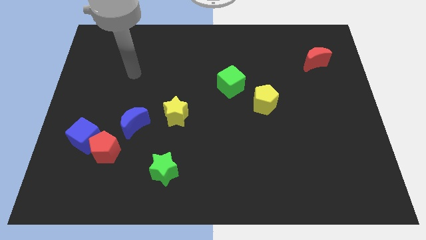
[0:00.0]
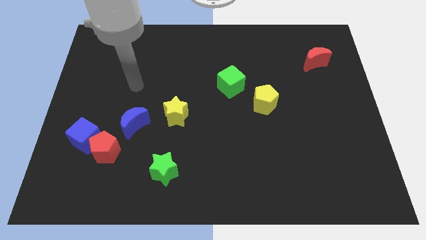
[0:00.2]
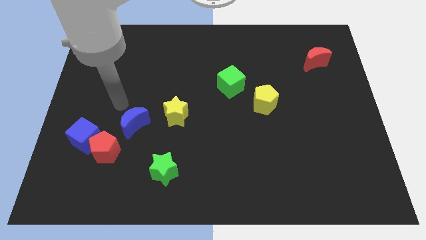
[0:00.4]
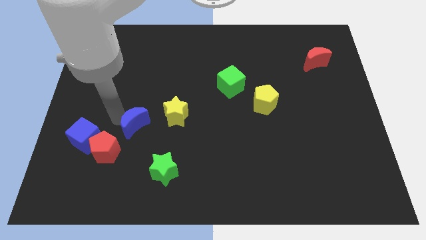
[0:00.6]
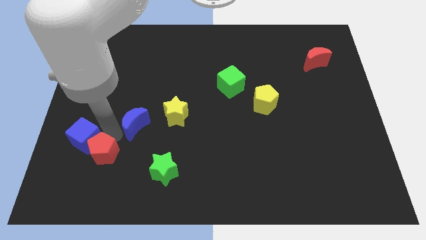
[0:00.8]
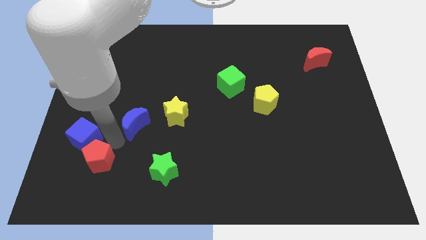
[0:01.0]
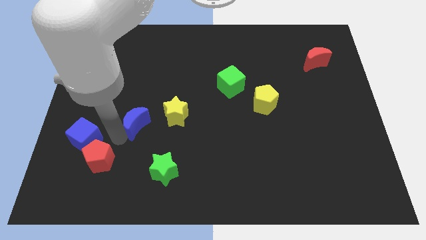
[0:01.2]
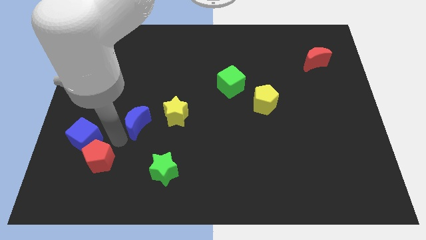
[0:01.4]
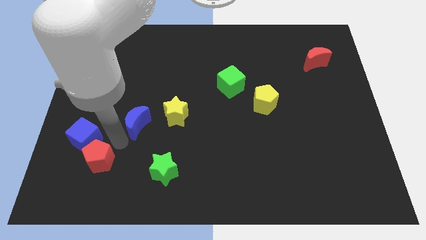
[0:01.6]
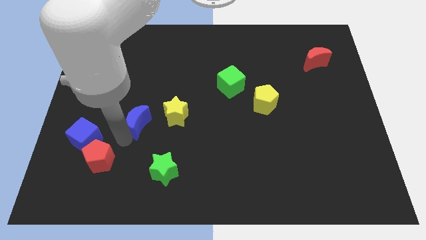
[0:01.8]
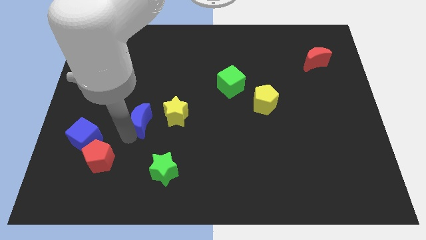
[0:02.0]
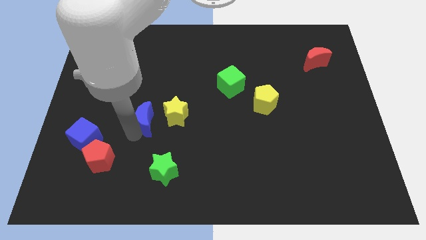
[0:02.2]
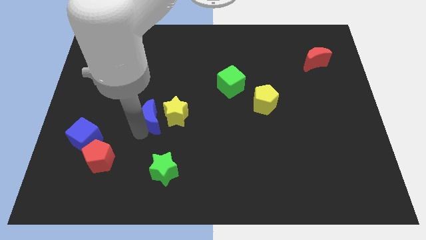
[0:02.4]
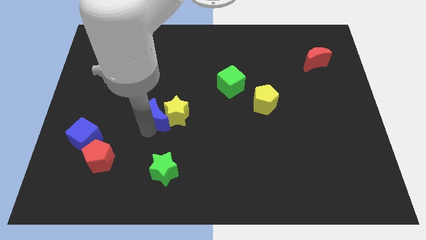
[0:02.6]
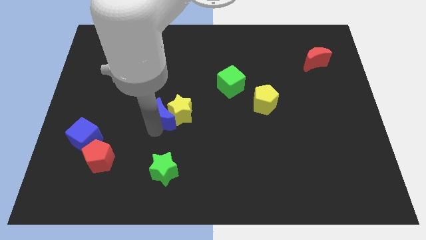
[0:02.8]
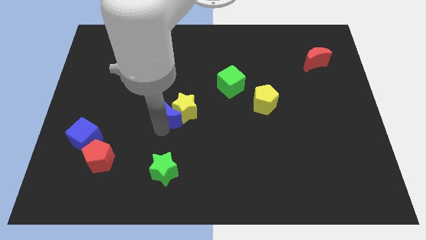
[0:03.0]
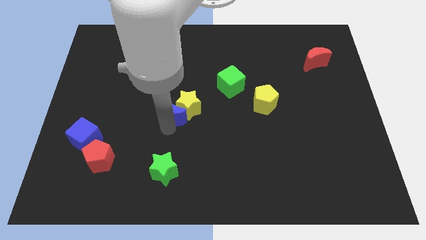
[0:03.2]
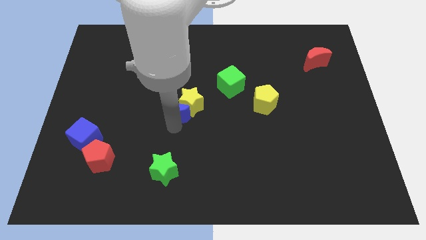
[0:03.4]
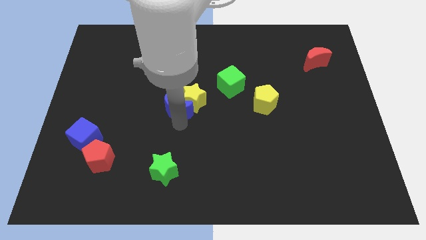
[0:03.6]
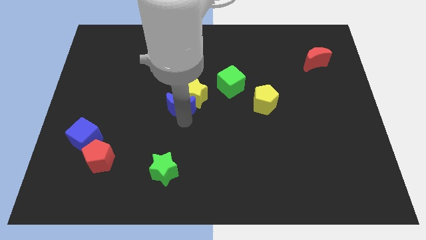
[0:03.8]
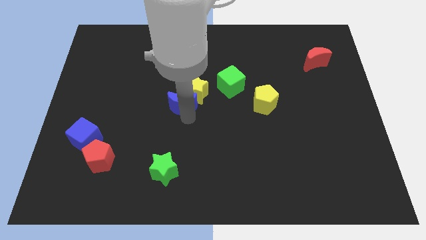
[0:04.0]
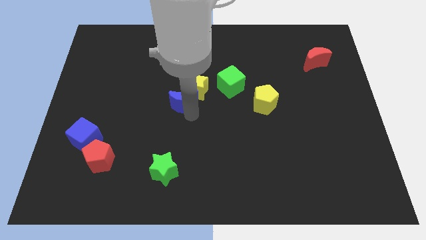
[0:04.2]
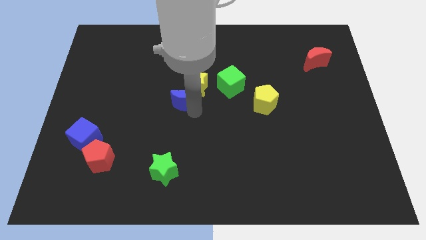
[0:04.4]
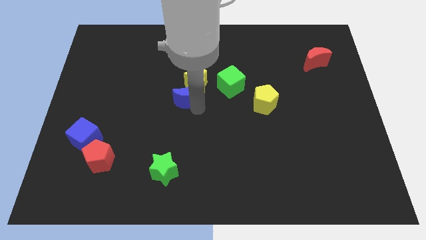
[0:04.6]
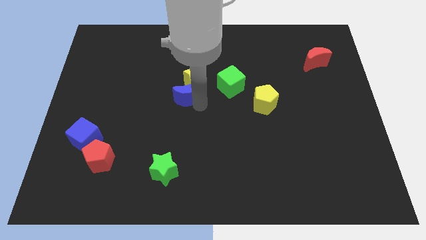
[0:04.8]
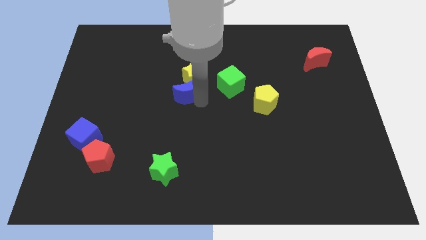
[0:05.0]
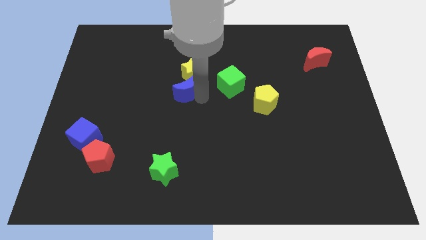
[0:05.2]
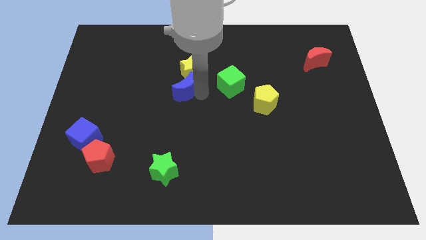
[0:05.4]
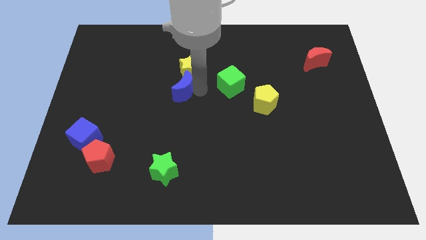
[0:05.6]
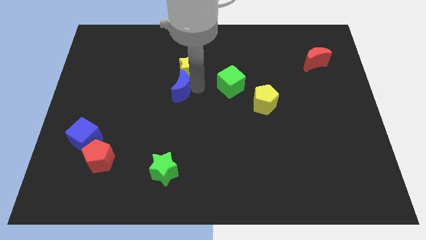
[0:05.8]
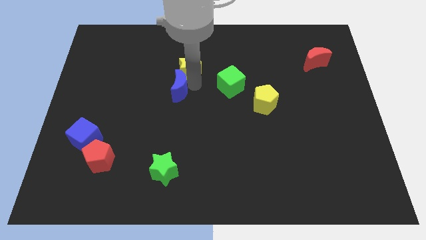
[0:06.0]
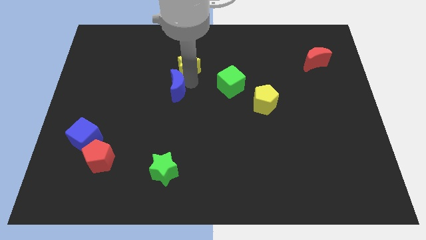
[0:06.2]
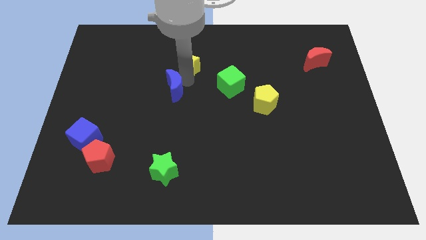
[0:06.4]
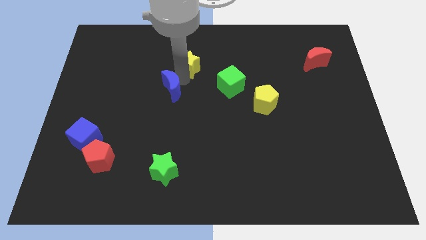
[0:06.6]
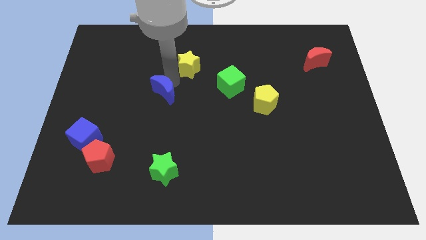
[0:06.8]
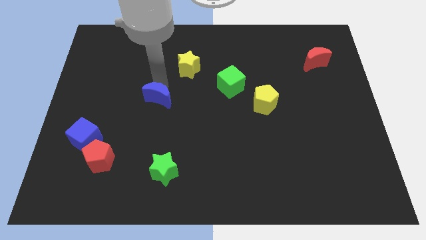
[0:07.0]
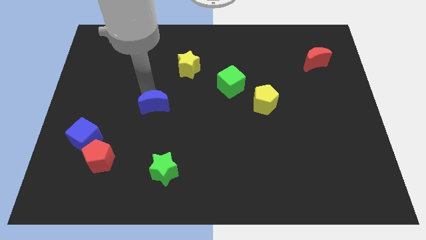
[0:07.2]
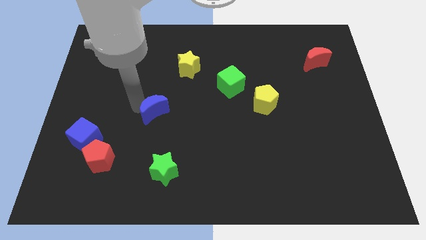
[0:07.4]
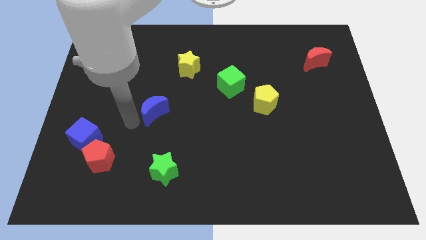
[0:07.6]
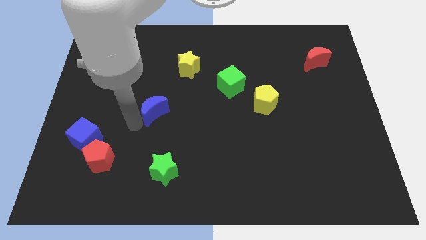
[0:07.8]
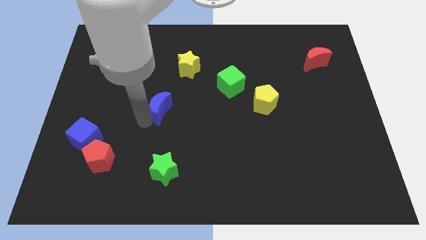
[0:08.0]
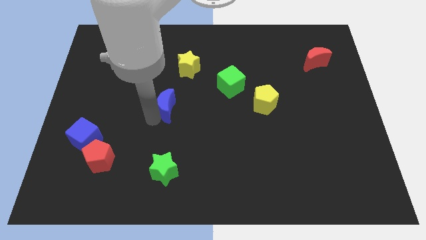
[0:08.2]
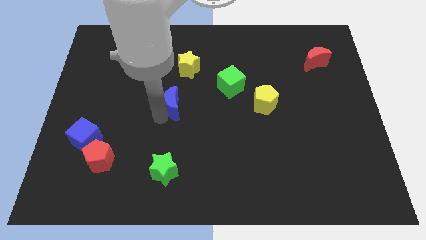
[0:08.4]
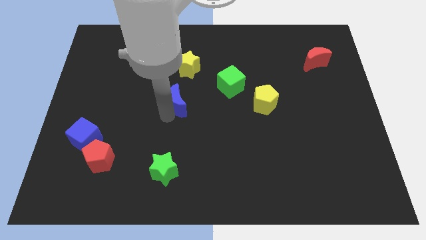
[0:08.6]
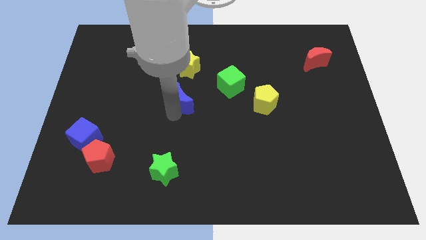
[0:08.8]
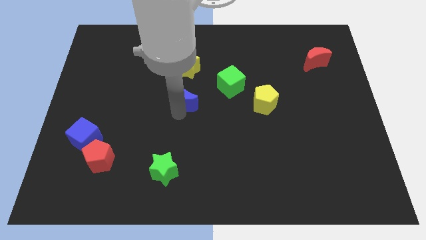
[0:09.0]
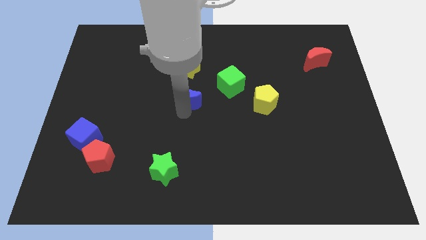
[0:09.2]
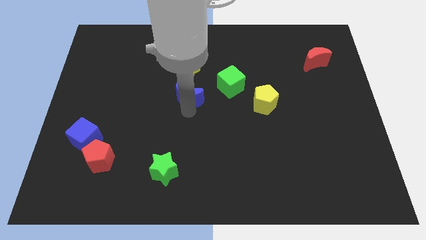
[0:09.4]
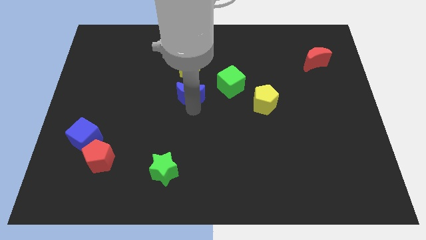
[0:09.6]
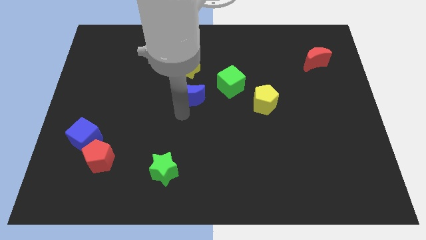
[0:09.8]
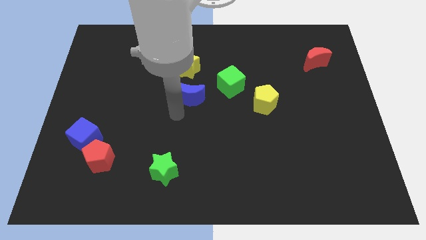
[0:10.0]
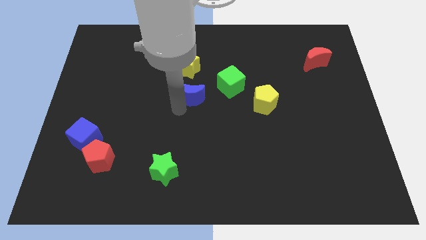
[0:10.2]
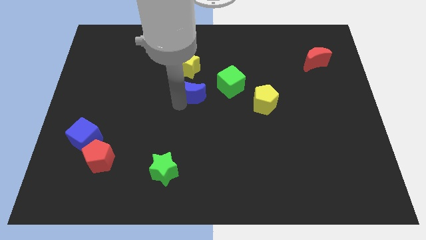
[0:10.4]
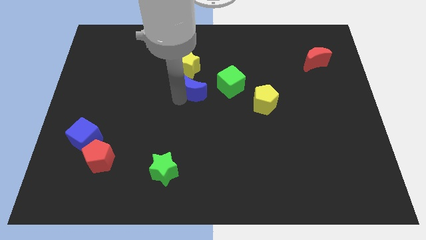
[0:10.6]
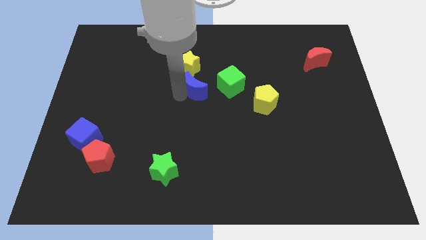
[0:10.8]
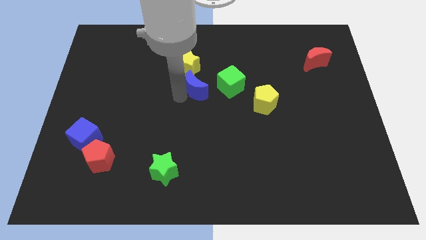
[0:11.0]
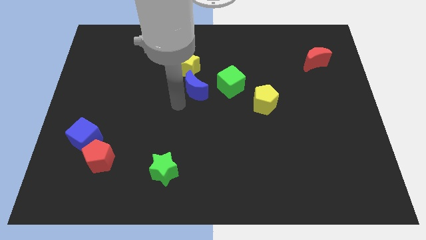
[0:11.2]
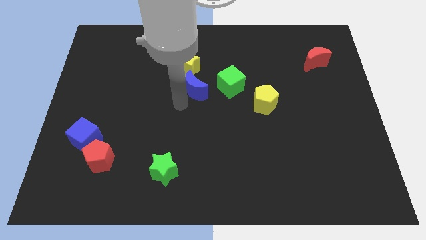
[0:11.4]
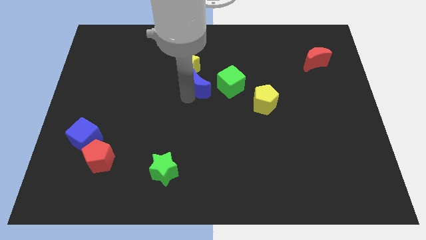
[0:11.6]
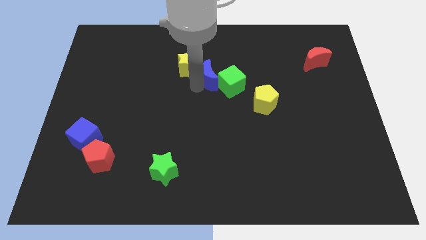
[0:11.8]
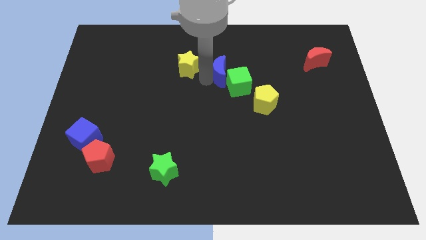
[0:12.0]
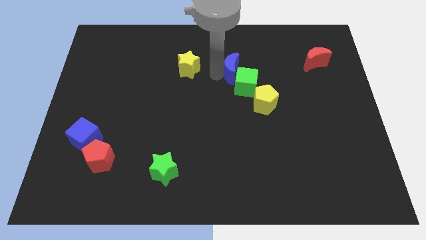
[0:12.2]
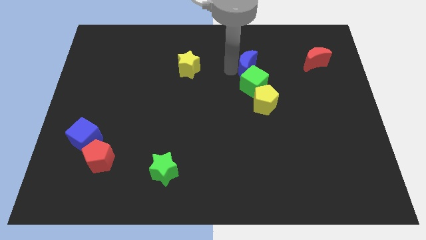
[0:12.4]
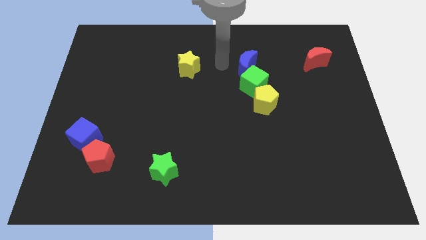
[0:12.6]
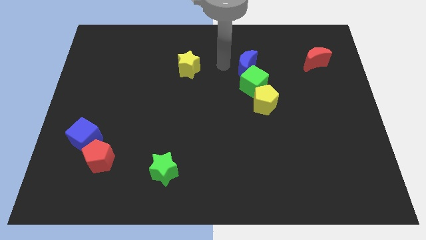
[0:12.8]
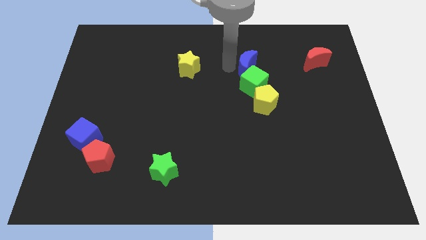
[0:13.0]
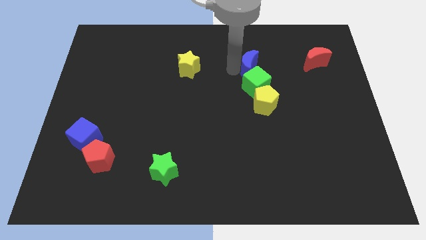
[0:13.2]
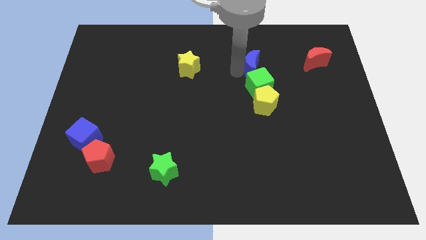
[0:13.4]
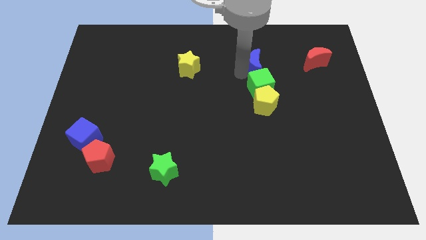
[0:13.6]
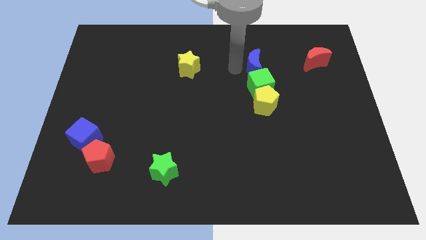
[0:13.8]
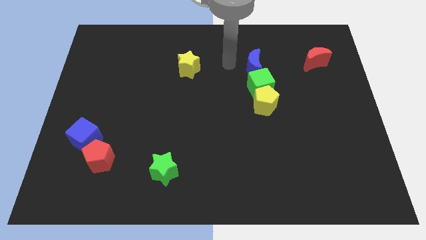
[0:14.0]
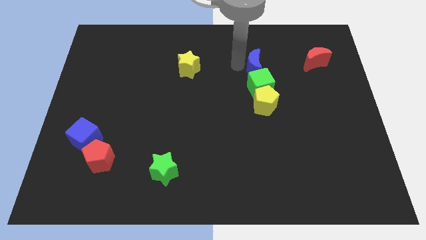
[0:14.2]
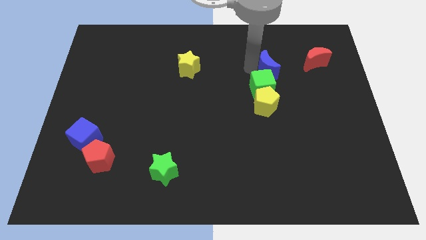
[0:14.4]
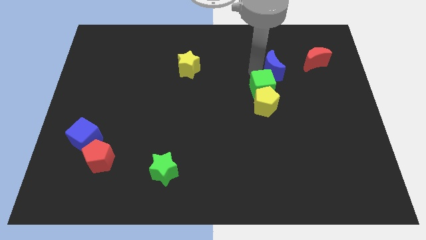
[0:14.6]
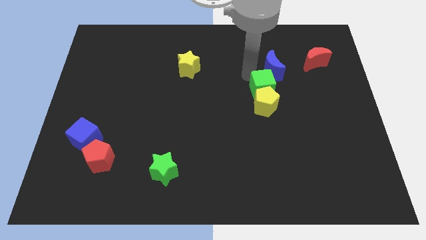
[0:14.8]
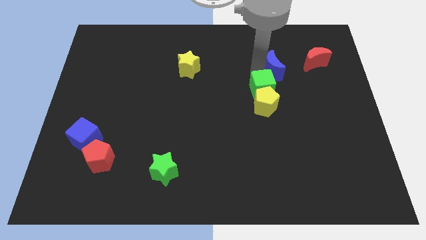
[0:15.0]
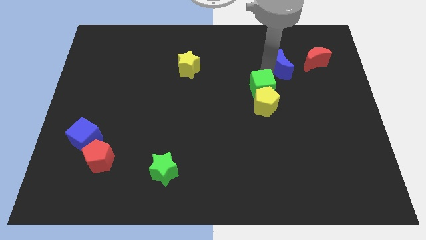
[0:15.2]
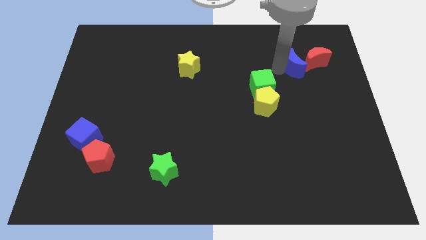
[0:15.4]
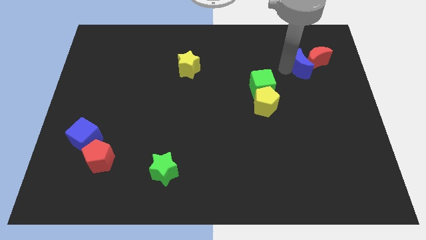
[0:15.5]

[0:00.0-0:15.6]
push the blue moon towards the red moon
